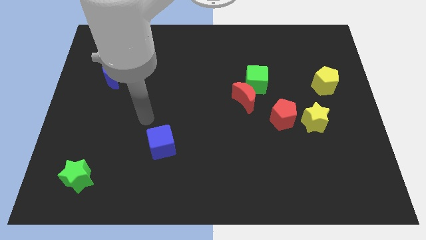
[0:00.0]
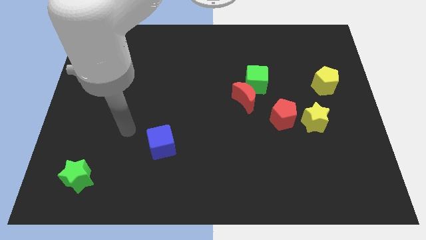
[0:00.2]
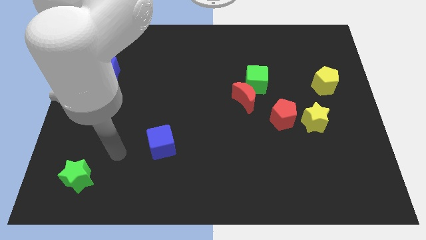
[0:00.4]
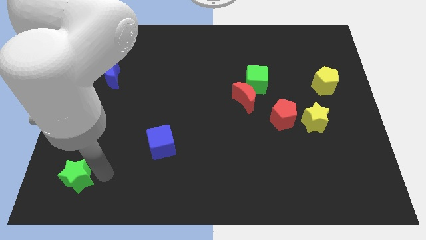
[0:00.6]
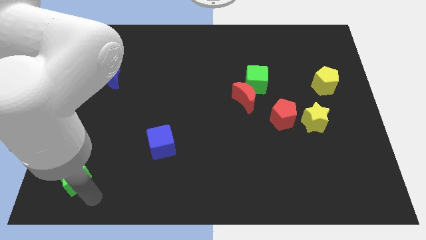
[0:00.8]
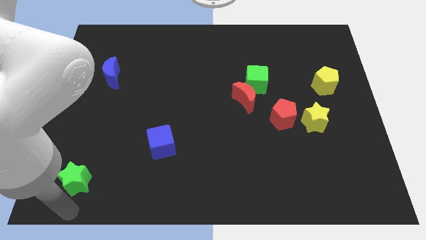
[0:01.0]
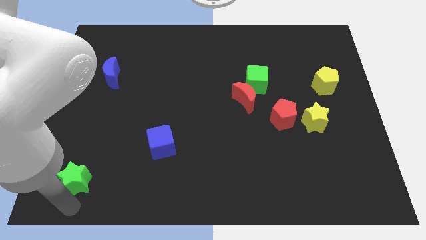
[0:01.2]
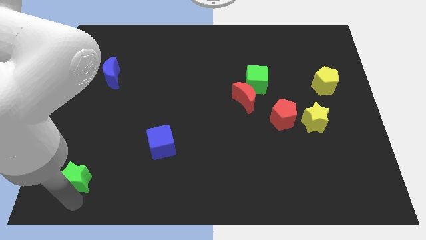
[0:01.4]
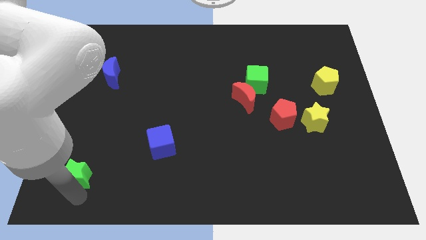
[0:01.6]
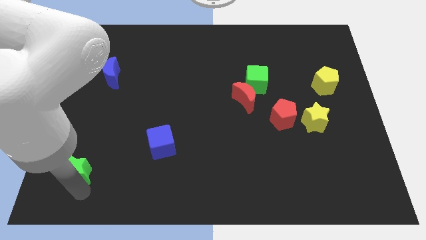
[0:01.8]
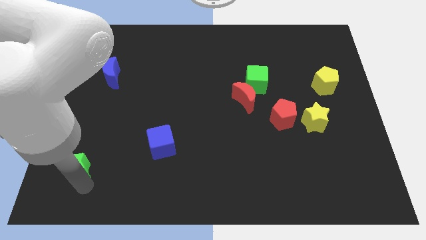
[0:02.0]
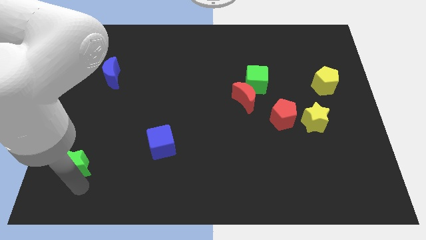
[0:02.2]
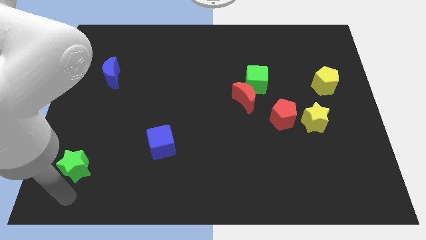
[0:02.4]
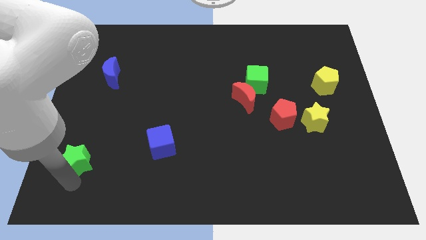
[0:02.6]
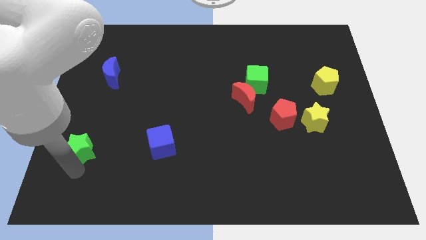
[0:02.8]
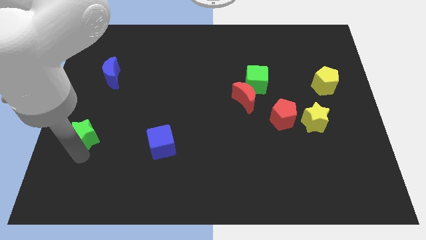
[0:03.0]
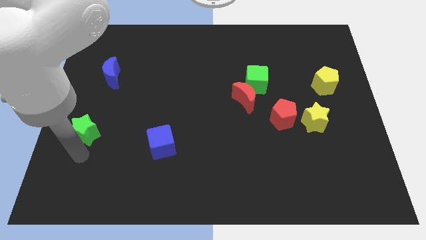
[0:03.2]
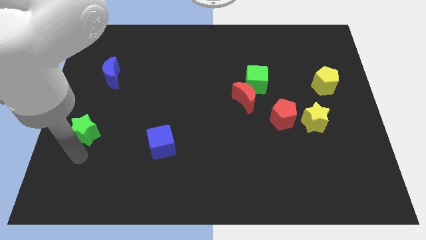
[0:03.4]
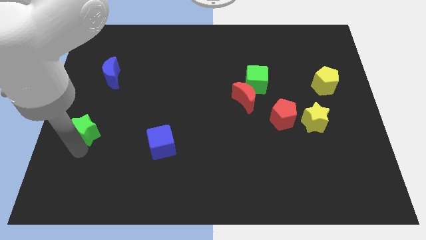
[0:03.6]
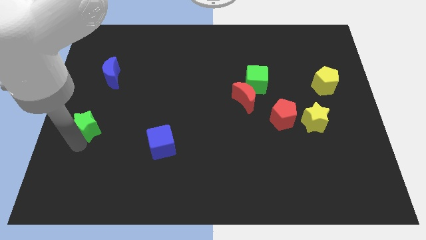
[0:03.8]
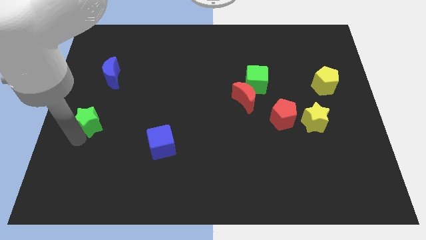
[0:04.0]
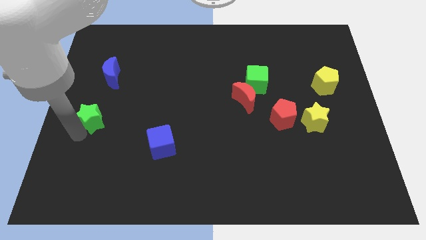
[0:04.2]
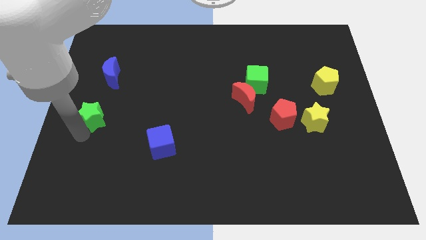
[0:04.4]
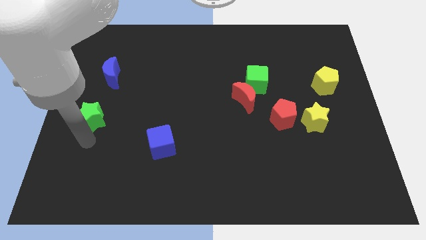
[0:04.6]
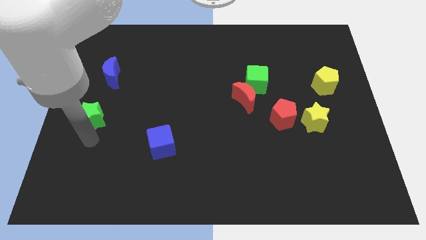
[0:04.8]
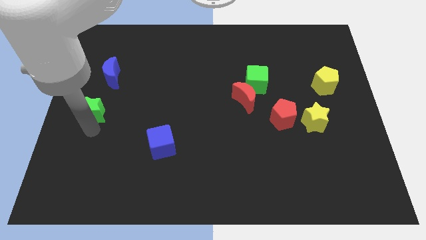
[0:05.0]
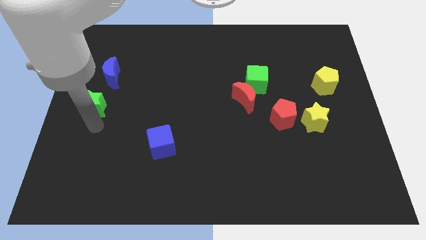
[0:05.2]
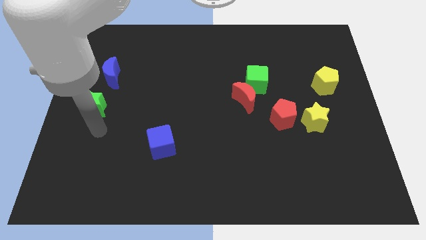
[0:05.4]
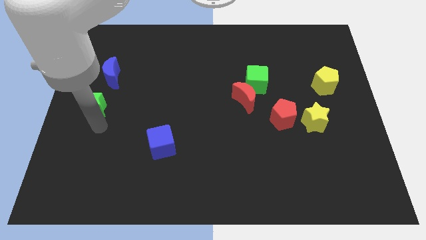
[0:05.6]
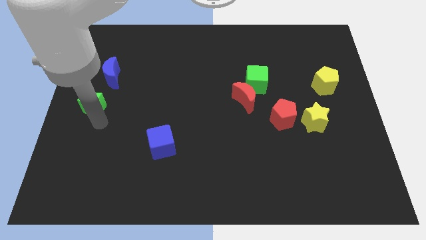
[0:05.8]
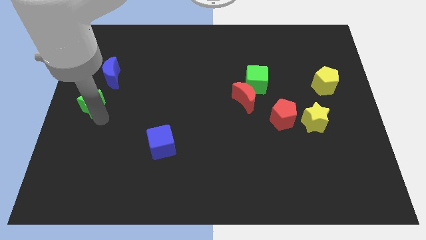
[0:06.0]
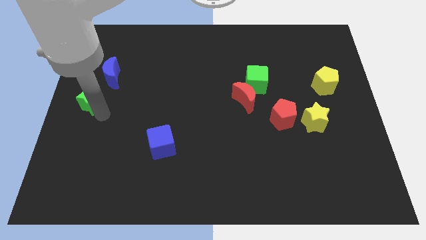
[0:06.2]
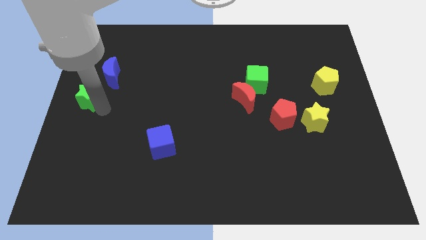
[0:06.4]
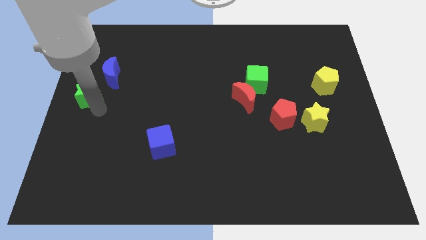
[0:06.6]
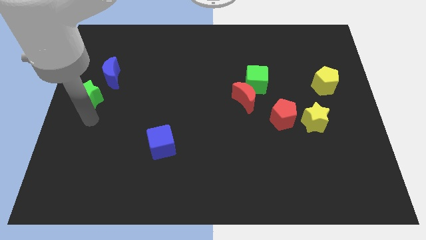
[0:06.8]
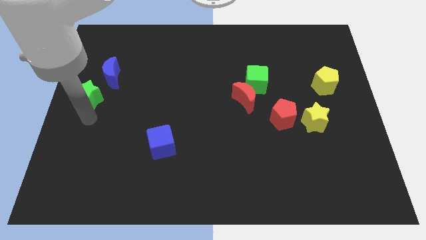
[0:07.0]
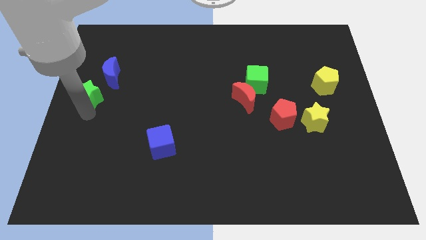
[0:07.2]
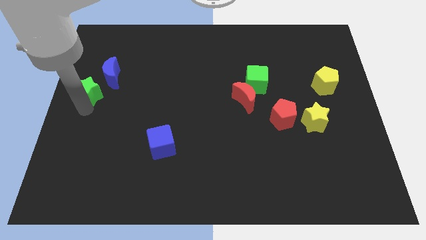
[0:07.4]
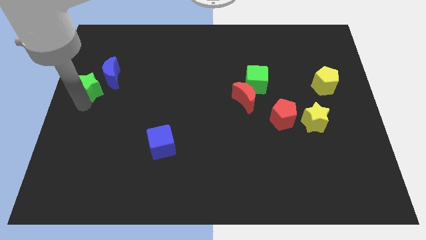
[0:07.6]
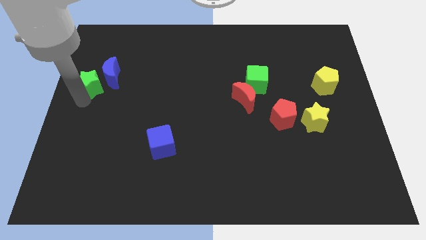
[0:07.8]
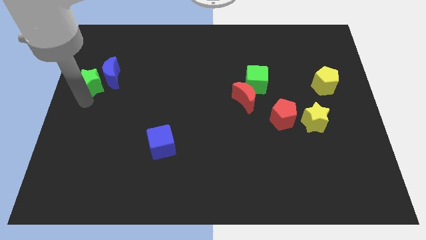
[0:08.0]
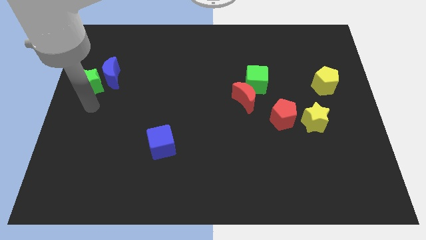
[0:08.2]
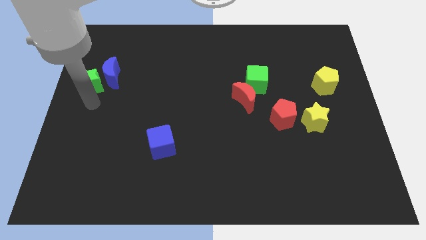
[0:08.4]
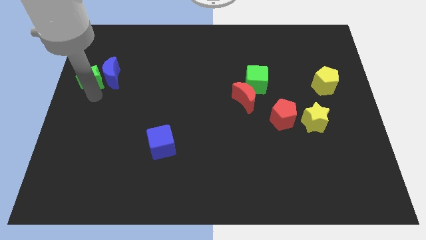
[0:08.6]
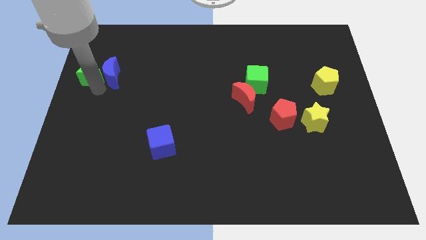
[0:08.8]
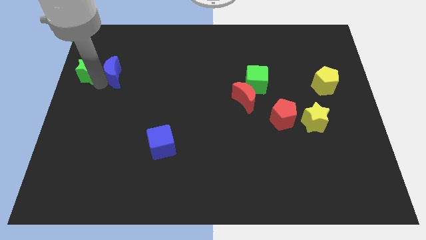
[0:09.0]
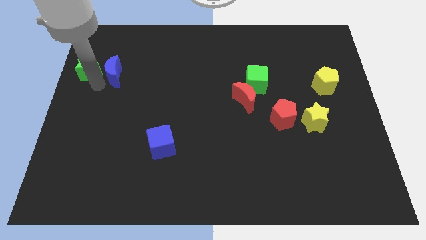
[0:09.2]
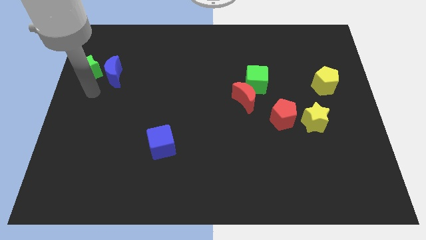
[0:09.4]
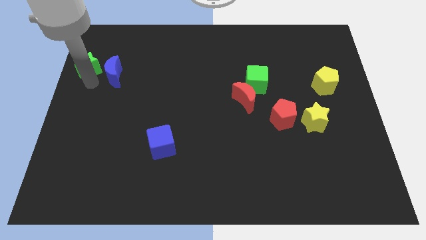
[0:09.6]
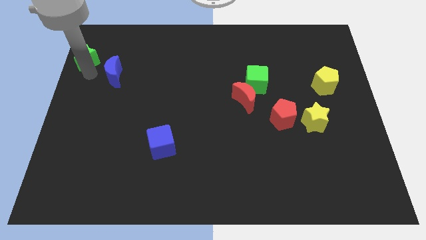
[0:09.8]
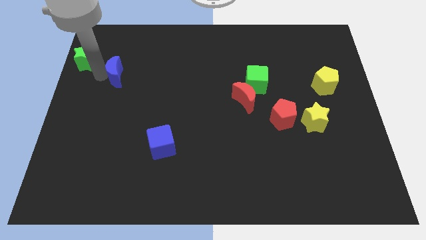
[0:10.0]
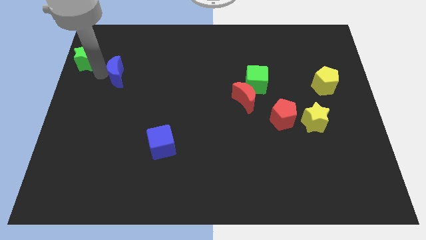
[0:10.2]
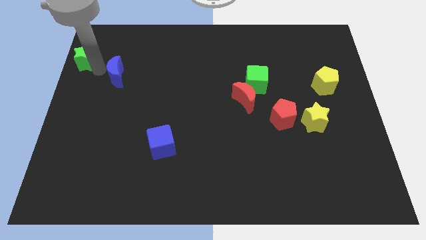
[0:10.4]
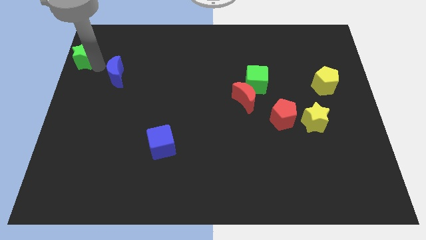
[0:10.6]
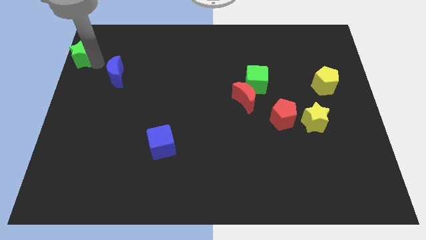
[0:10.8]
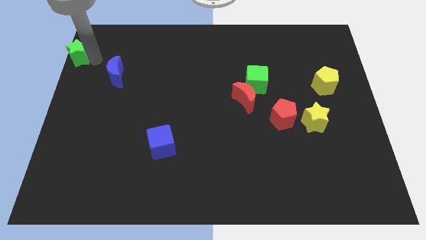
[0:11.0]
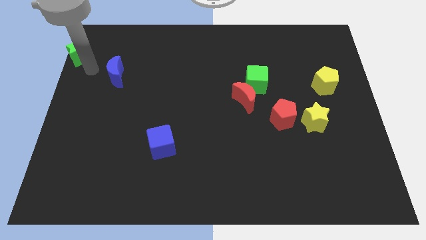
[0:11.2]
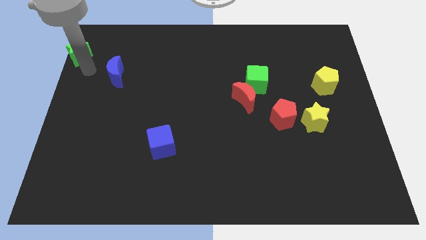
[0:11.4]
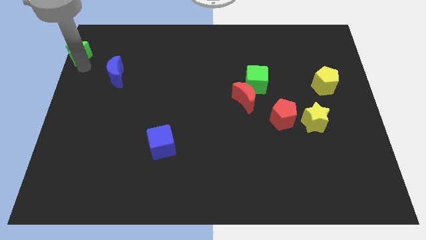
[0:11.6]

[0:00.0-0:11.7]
push the green star to the upper left corner

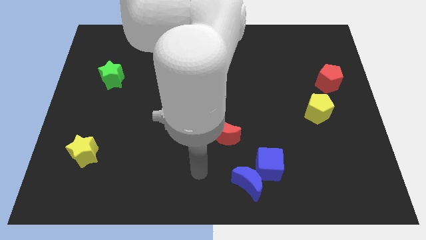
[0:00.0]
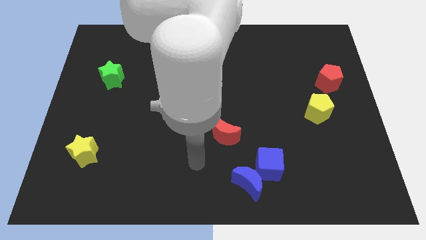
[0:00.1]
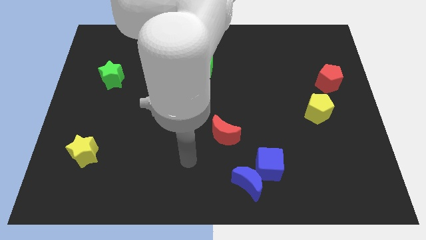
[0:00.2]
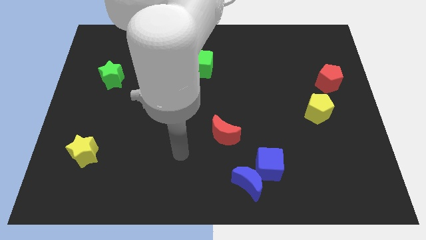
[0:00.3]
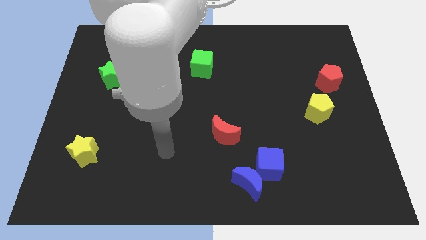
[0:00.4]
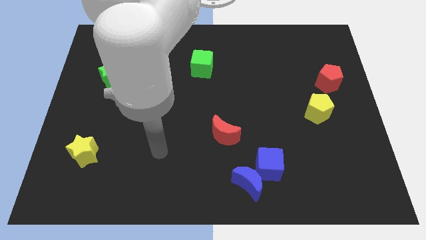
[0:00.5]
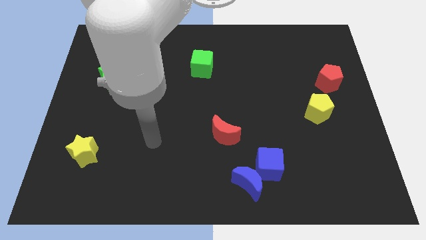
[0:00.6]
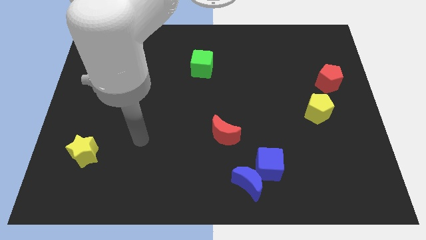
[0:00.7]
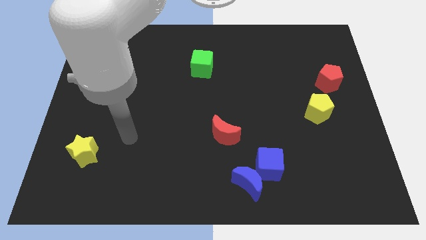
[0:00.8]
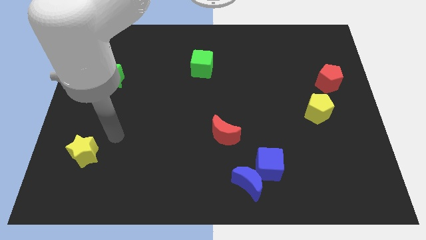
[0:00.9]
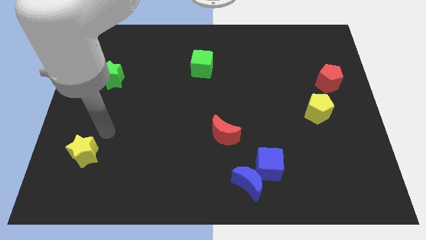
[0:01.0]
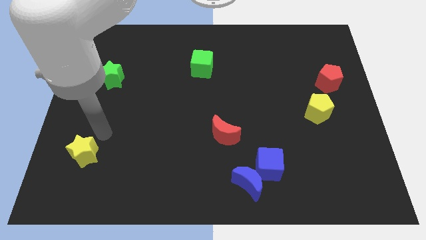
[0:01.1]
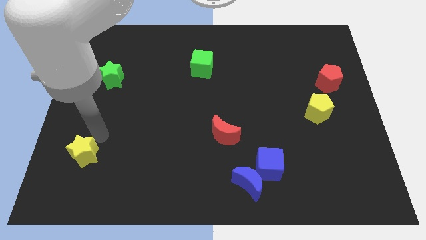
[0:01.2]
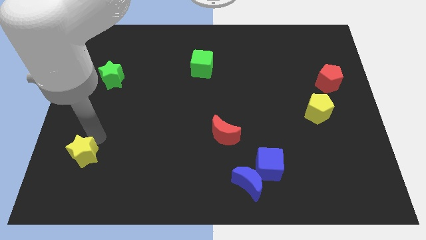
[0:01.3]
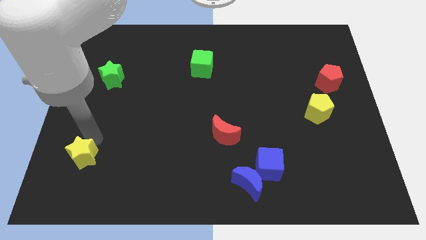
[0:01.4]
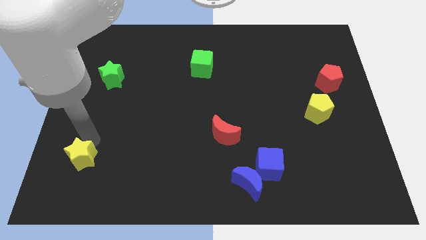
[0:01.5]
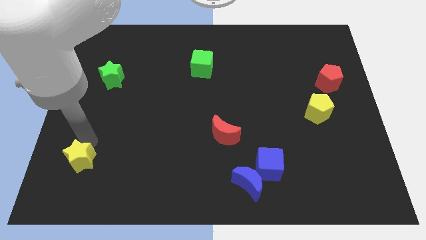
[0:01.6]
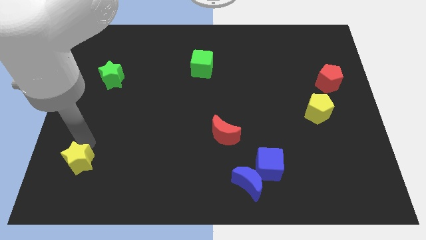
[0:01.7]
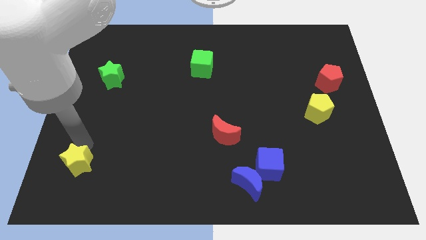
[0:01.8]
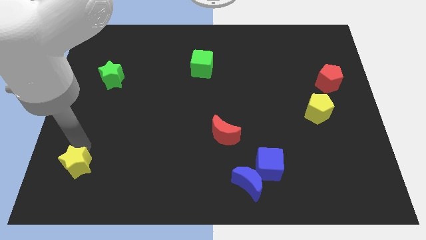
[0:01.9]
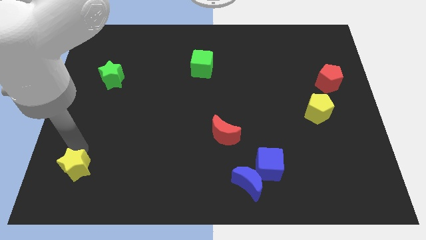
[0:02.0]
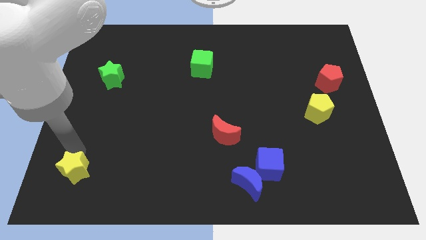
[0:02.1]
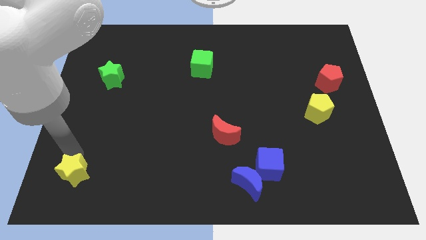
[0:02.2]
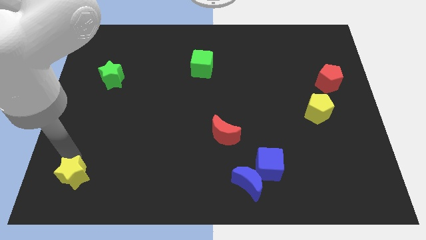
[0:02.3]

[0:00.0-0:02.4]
push the yellow star to the bottom left of the board
